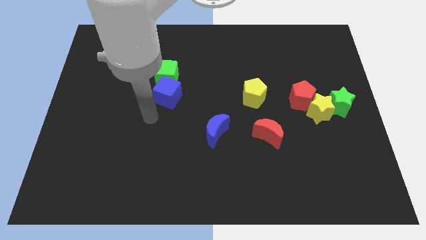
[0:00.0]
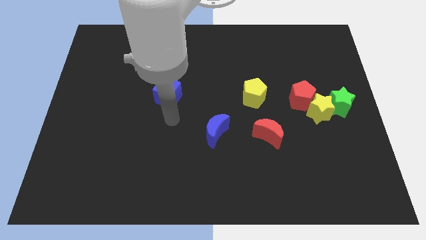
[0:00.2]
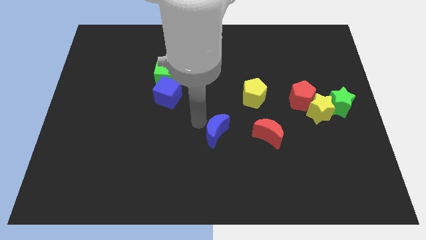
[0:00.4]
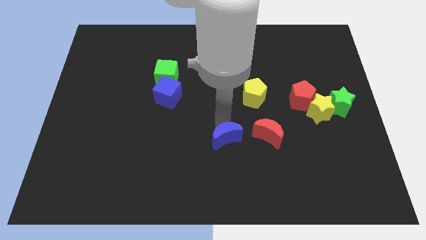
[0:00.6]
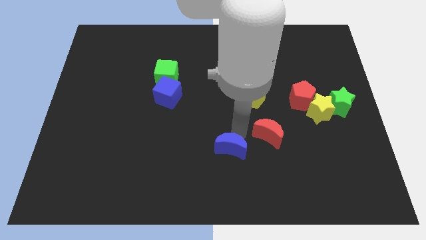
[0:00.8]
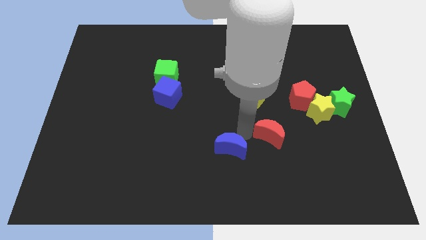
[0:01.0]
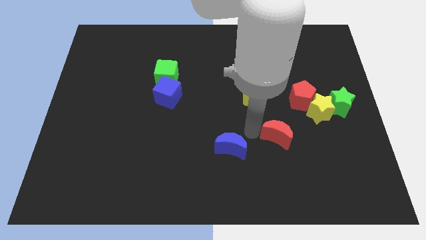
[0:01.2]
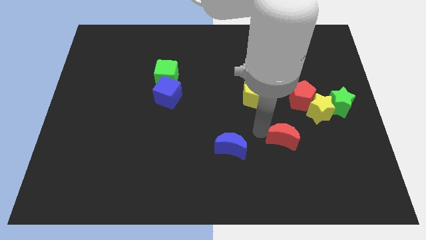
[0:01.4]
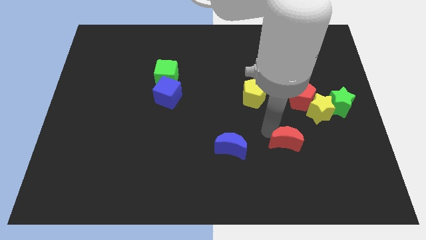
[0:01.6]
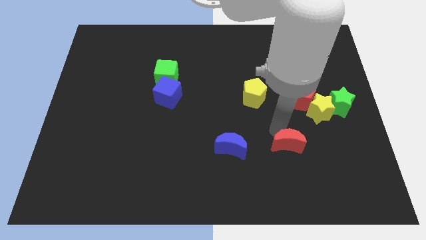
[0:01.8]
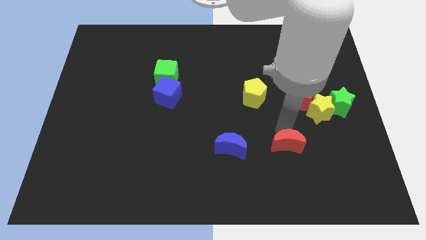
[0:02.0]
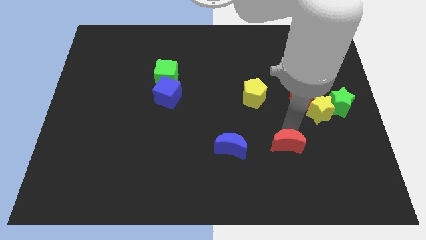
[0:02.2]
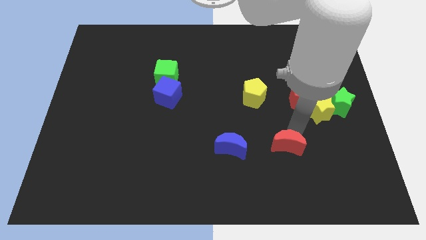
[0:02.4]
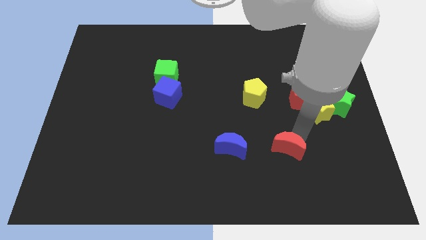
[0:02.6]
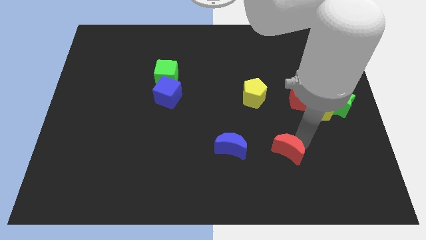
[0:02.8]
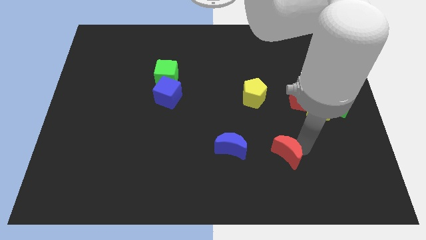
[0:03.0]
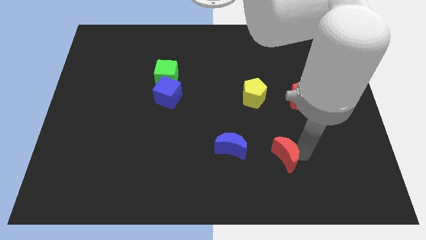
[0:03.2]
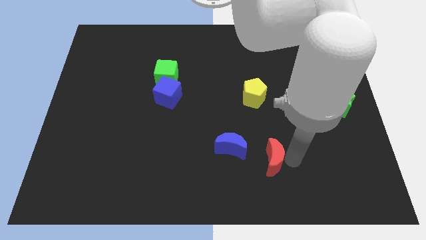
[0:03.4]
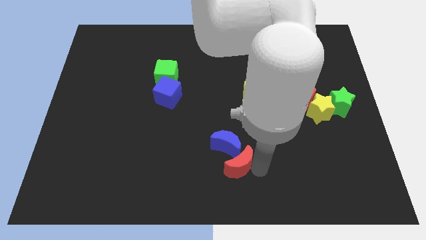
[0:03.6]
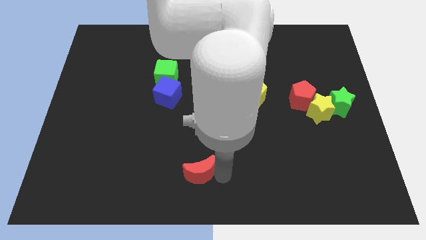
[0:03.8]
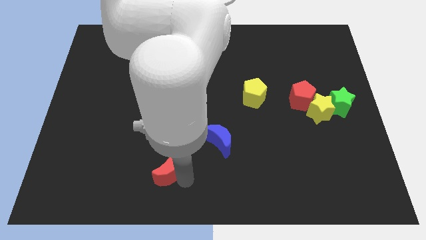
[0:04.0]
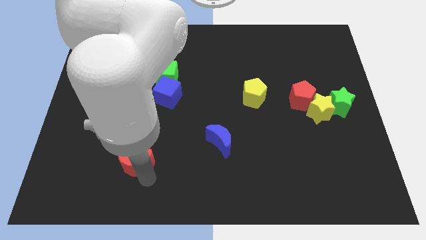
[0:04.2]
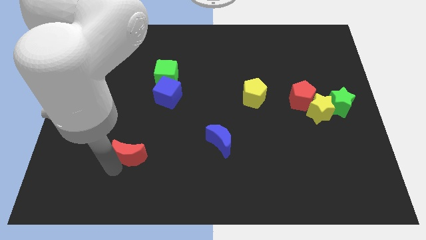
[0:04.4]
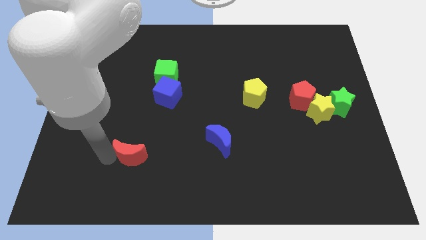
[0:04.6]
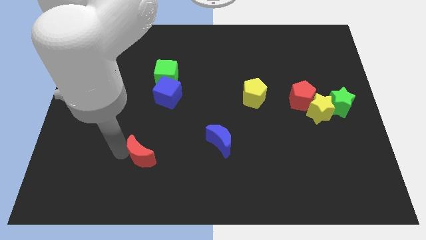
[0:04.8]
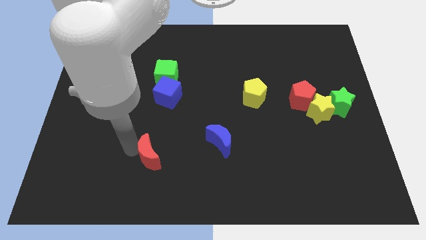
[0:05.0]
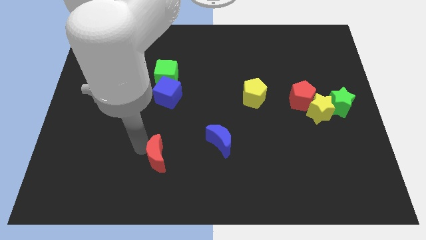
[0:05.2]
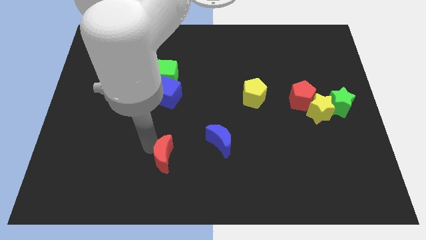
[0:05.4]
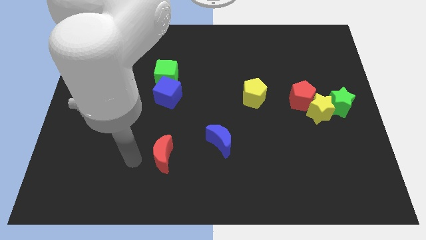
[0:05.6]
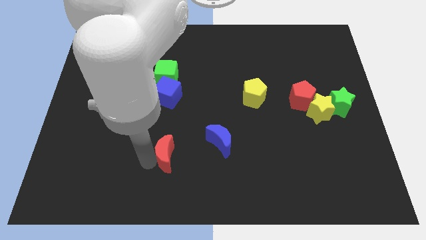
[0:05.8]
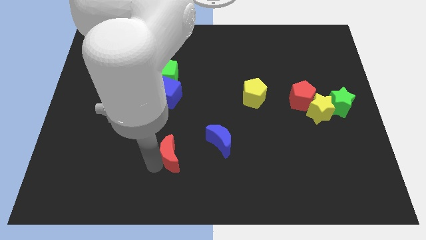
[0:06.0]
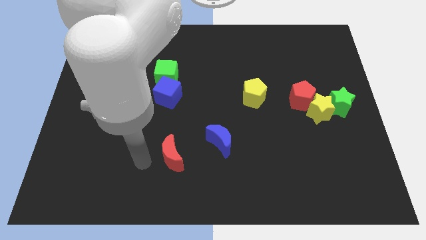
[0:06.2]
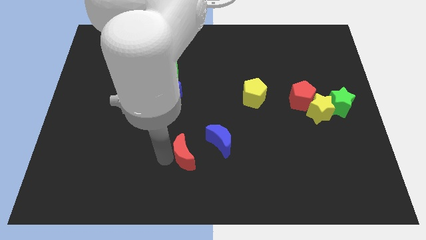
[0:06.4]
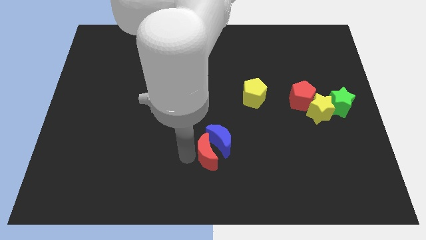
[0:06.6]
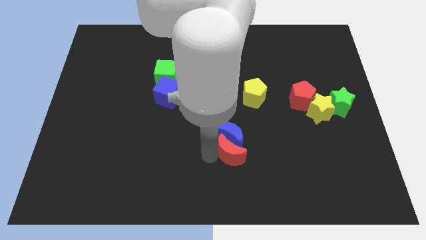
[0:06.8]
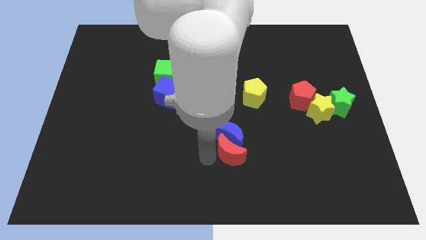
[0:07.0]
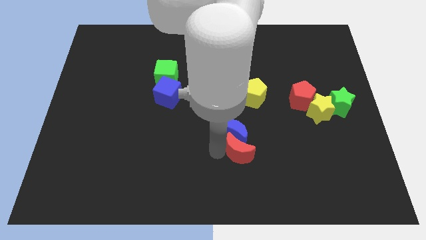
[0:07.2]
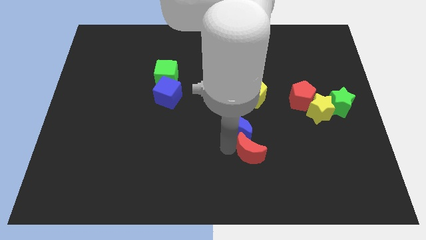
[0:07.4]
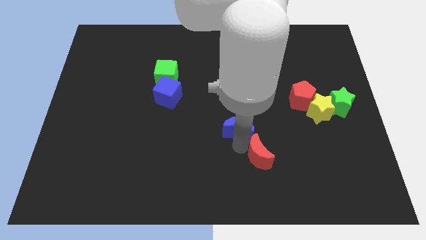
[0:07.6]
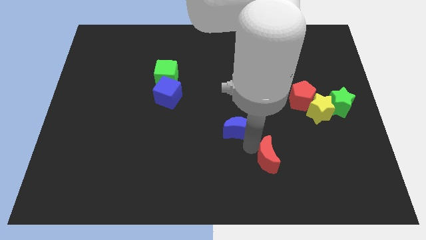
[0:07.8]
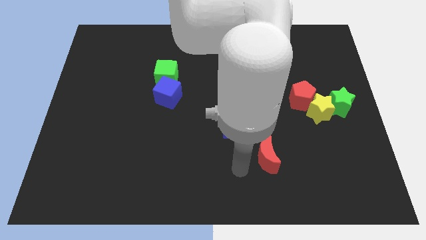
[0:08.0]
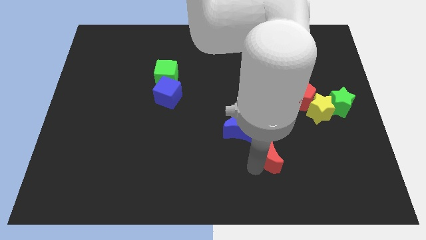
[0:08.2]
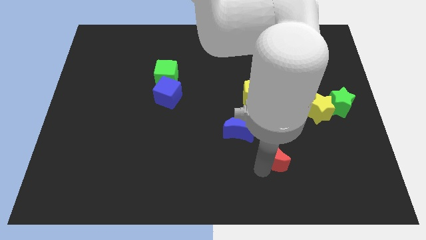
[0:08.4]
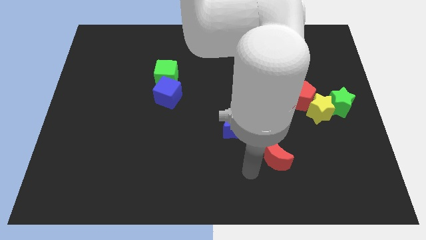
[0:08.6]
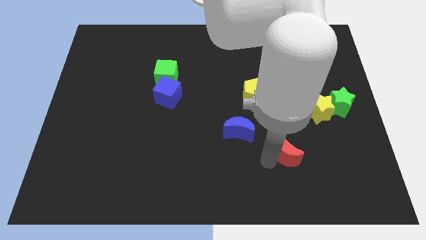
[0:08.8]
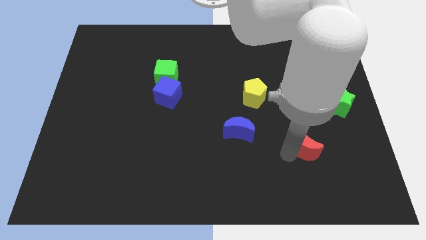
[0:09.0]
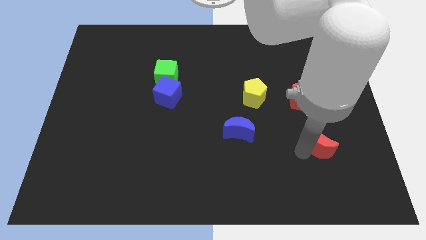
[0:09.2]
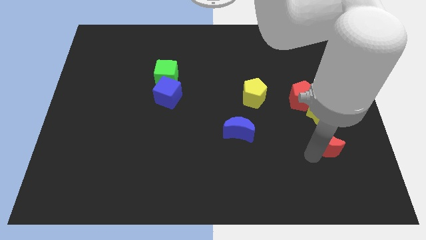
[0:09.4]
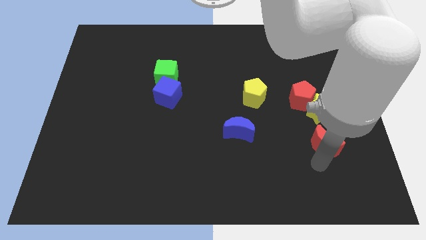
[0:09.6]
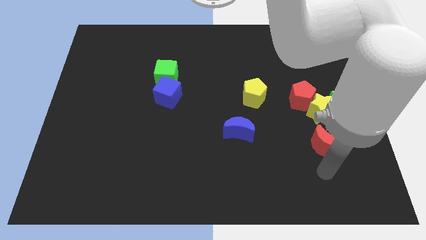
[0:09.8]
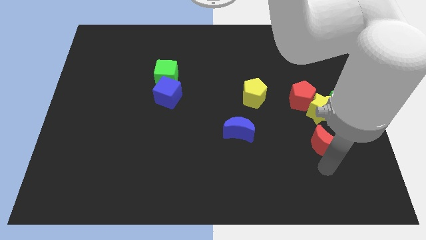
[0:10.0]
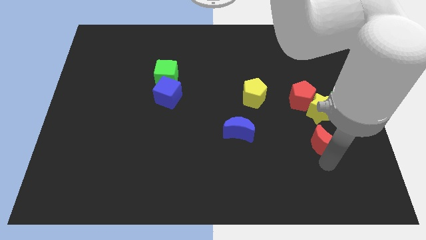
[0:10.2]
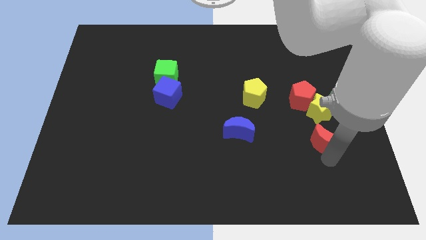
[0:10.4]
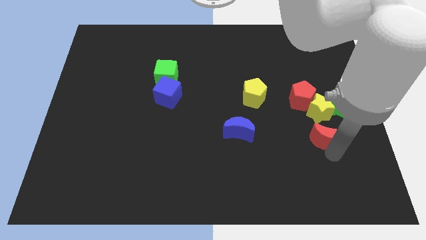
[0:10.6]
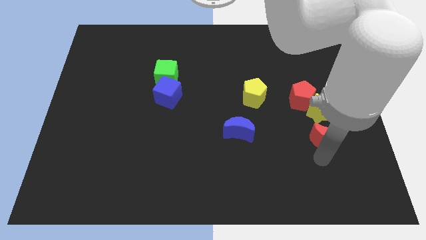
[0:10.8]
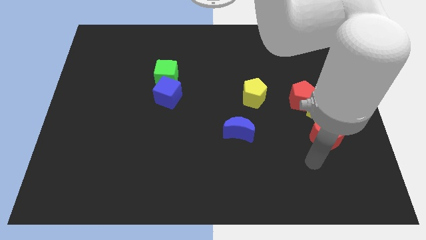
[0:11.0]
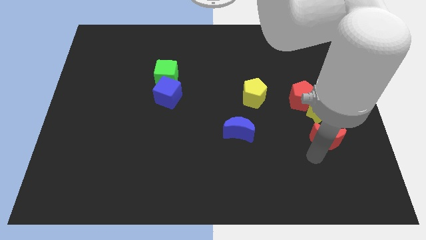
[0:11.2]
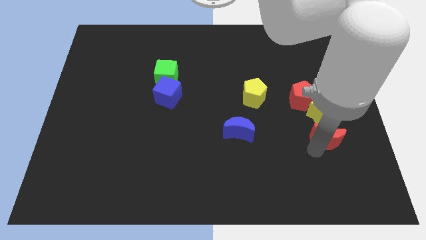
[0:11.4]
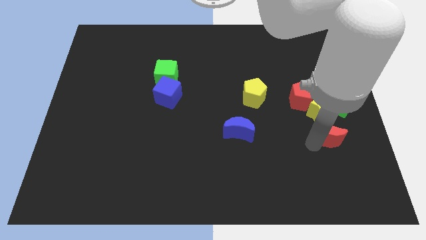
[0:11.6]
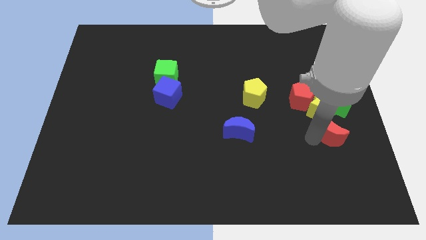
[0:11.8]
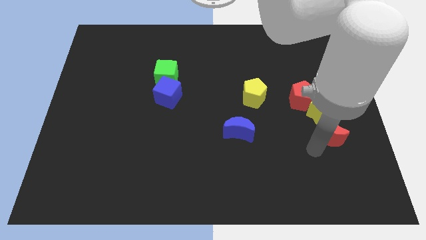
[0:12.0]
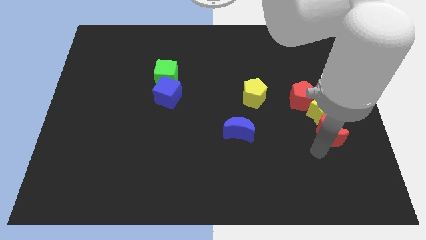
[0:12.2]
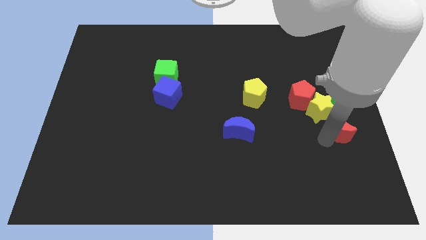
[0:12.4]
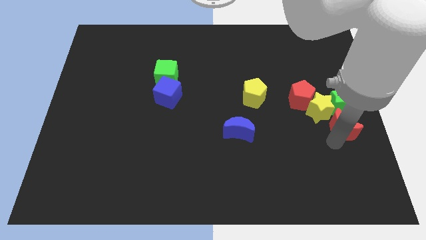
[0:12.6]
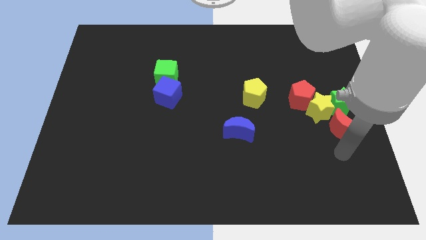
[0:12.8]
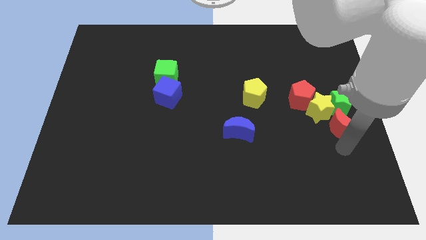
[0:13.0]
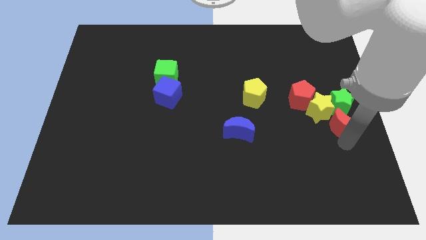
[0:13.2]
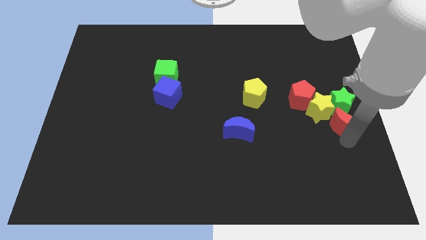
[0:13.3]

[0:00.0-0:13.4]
move the red moon next to the green star
